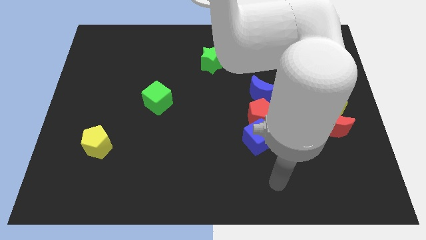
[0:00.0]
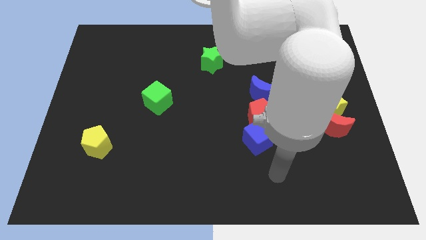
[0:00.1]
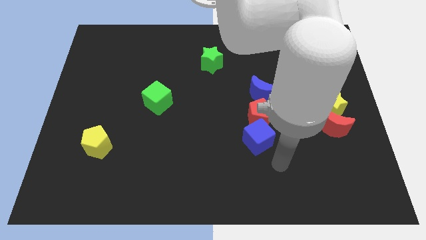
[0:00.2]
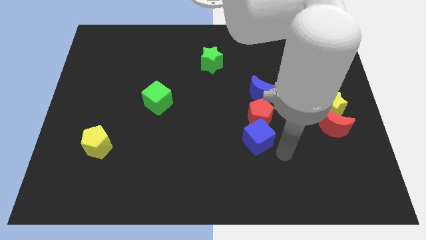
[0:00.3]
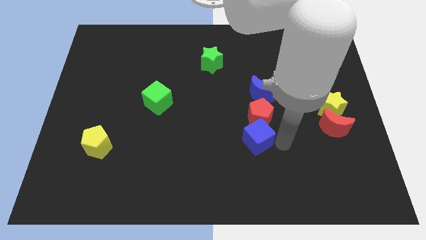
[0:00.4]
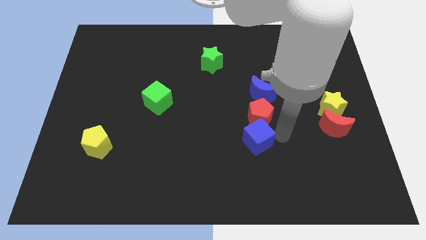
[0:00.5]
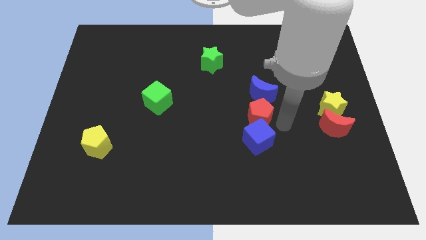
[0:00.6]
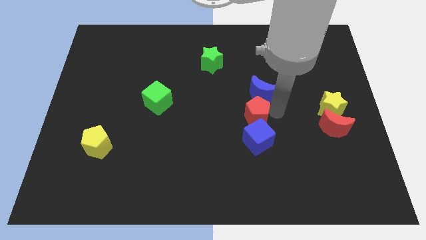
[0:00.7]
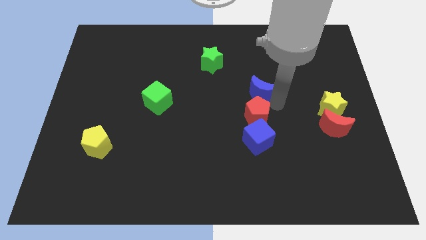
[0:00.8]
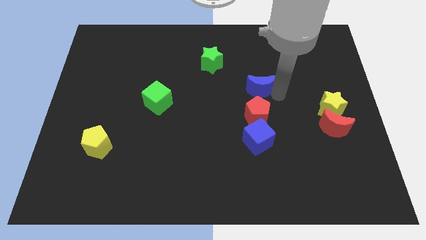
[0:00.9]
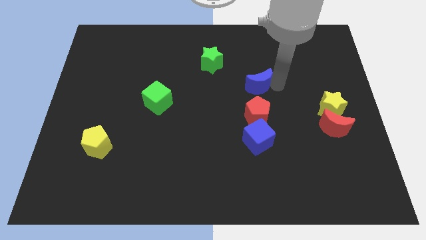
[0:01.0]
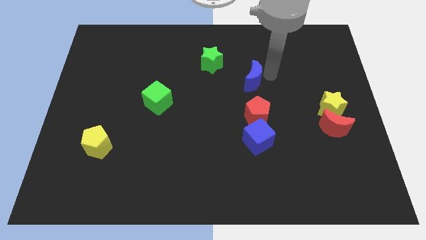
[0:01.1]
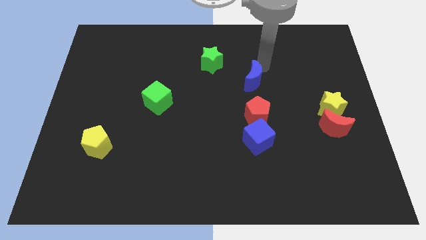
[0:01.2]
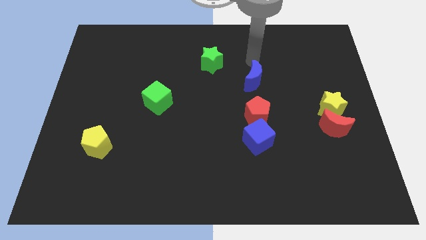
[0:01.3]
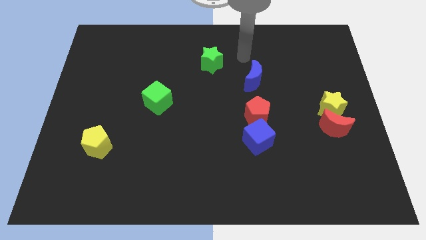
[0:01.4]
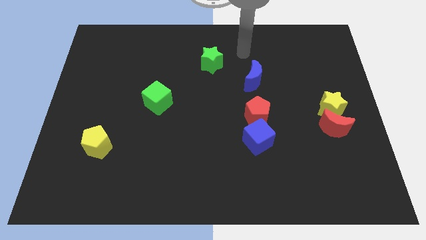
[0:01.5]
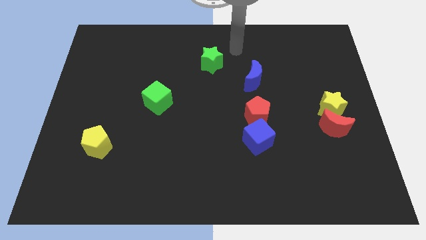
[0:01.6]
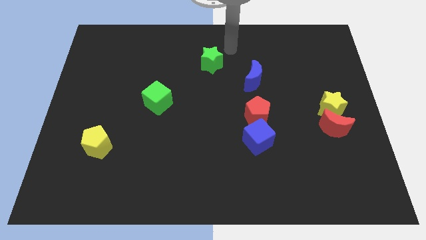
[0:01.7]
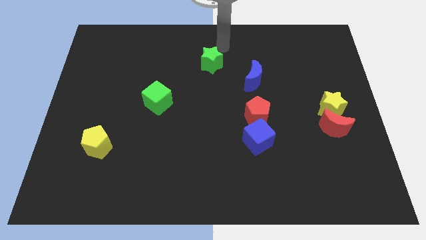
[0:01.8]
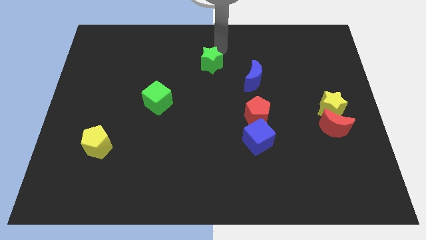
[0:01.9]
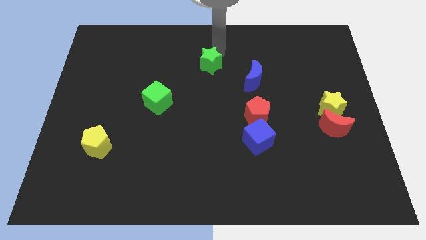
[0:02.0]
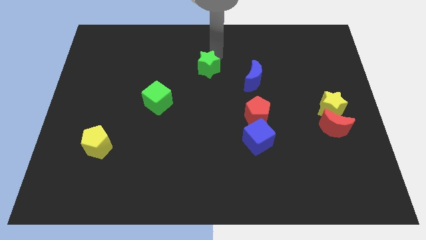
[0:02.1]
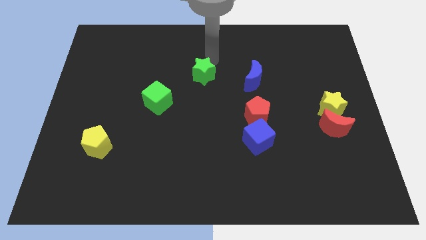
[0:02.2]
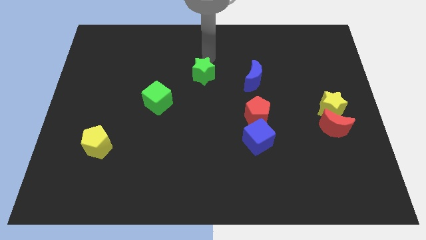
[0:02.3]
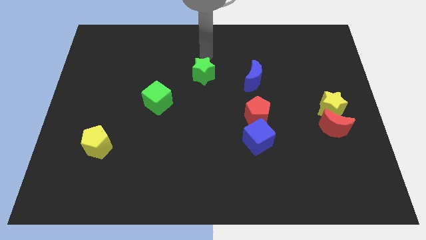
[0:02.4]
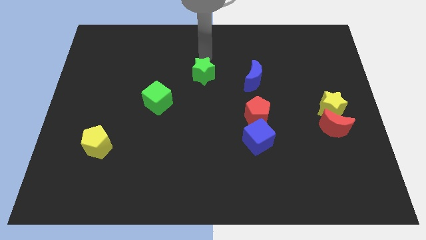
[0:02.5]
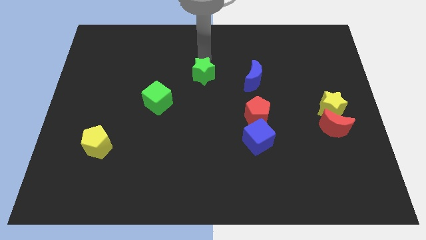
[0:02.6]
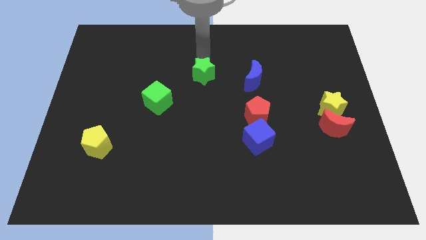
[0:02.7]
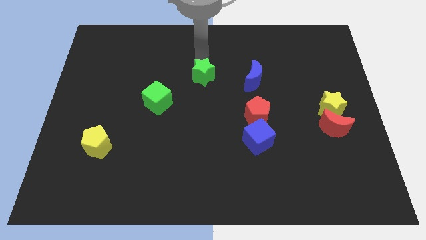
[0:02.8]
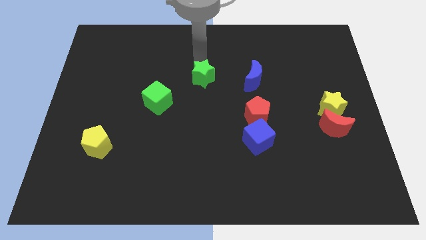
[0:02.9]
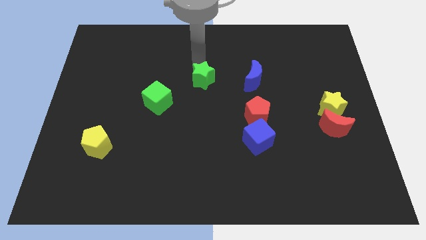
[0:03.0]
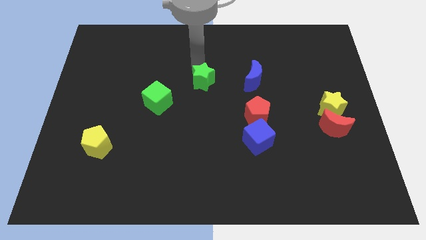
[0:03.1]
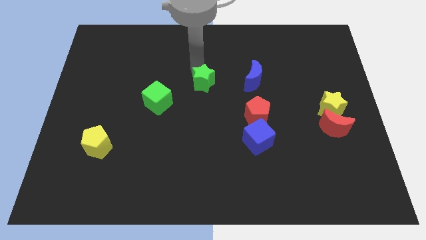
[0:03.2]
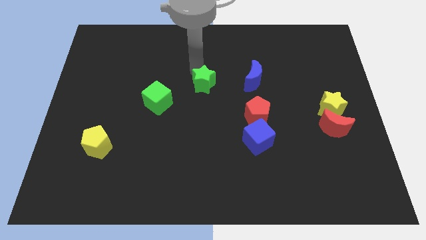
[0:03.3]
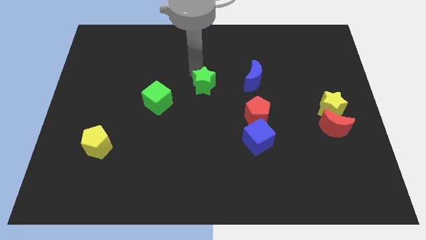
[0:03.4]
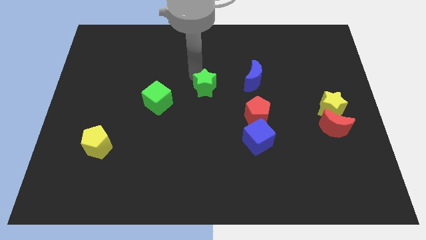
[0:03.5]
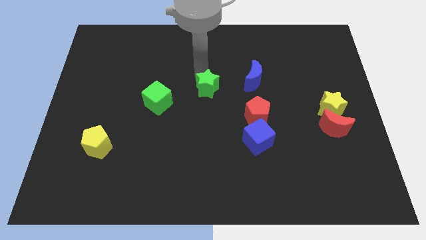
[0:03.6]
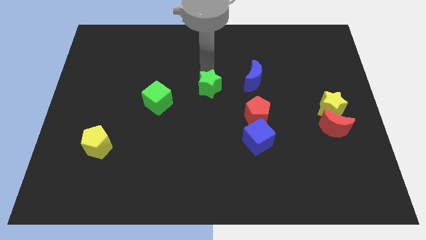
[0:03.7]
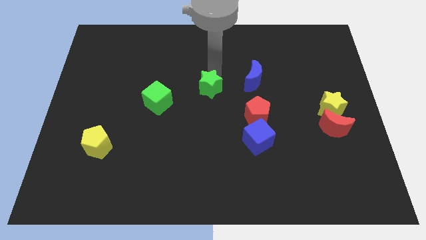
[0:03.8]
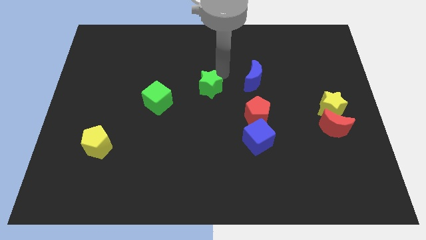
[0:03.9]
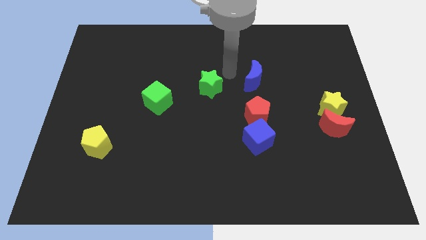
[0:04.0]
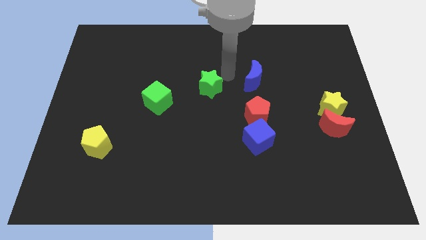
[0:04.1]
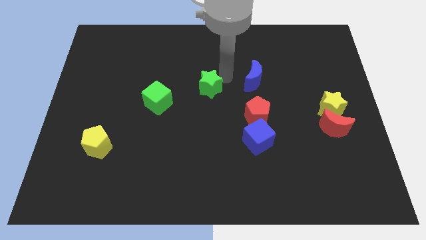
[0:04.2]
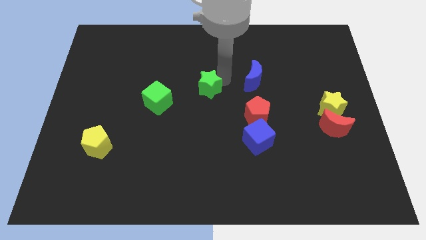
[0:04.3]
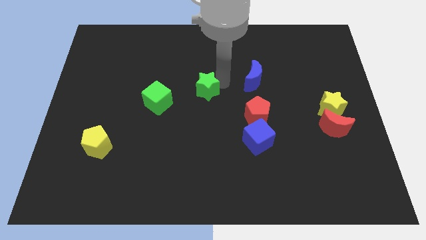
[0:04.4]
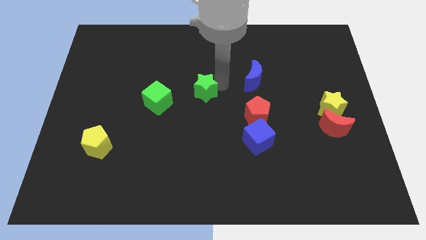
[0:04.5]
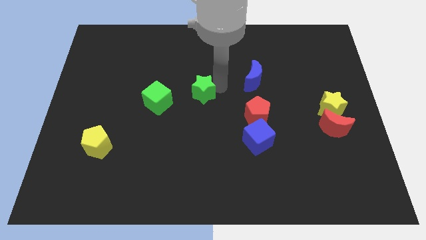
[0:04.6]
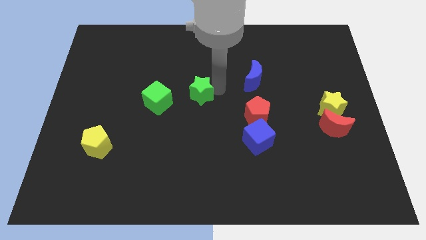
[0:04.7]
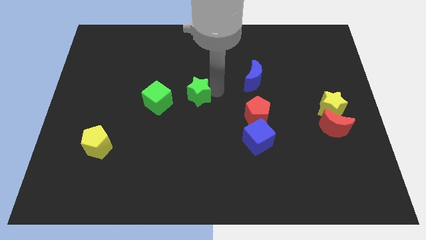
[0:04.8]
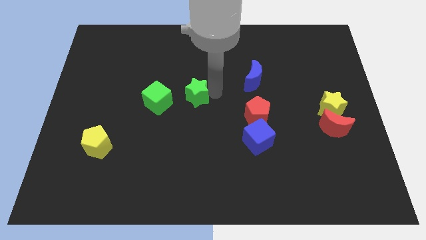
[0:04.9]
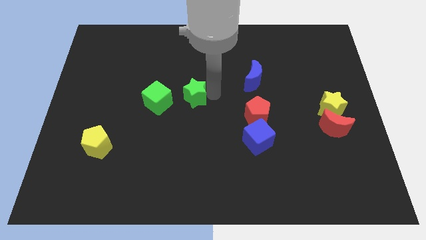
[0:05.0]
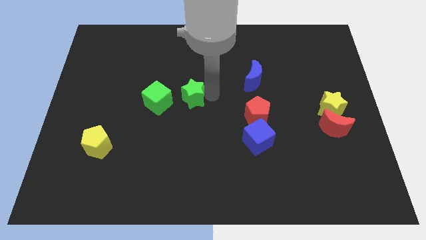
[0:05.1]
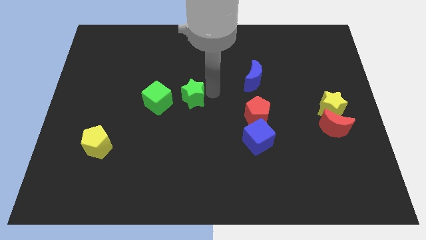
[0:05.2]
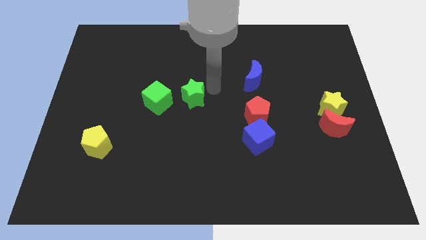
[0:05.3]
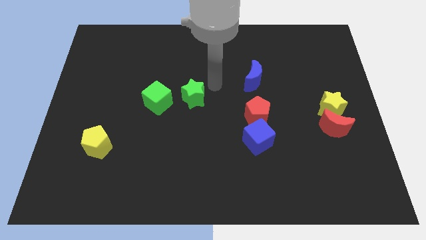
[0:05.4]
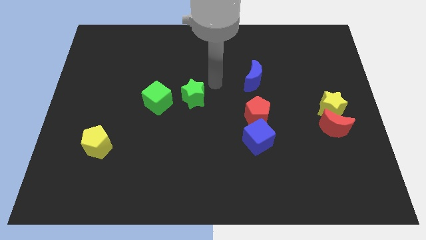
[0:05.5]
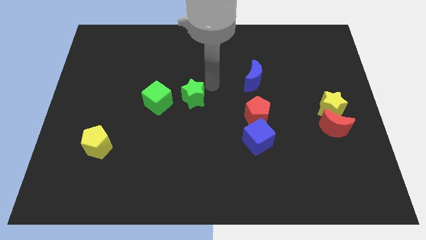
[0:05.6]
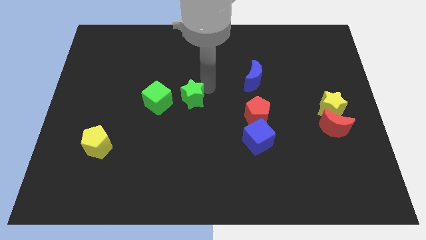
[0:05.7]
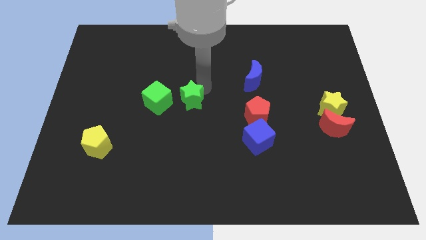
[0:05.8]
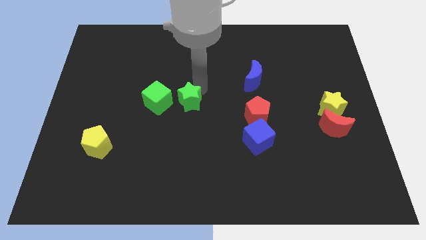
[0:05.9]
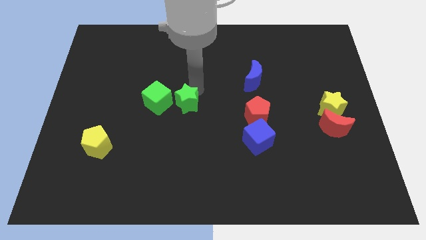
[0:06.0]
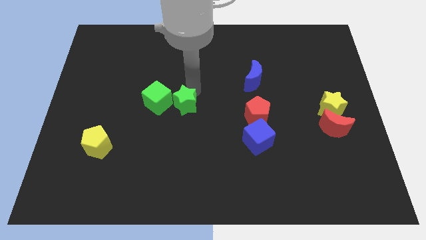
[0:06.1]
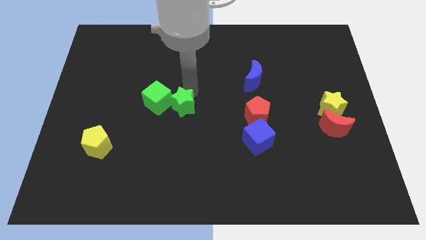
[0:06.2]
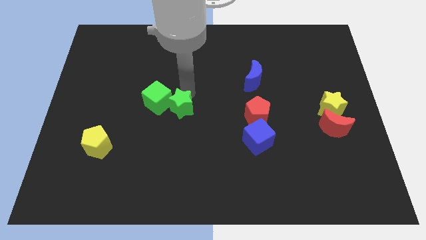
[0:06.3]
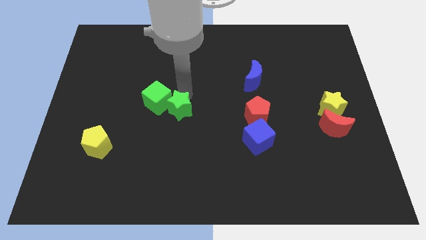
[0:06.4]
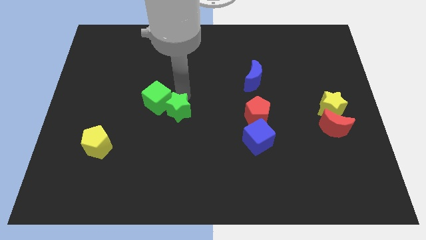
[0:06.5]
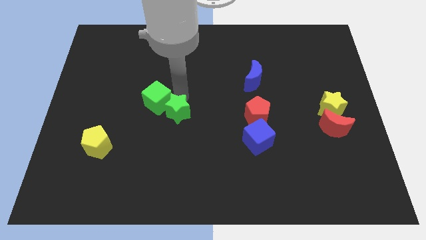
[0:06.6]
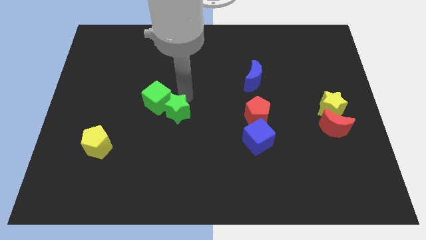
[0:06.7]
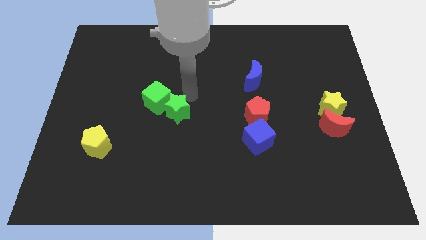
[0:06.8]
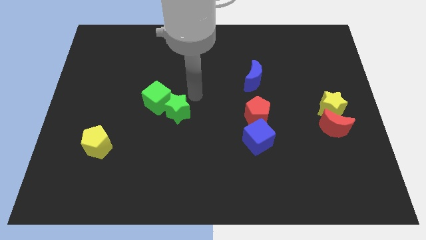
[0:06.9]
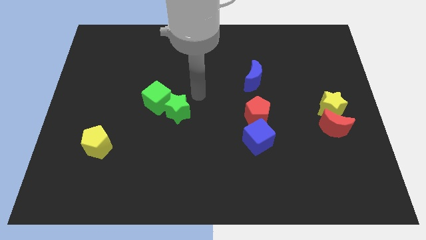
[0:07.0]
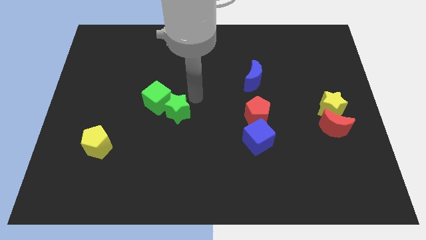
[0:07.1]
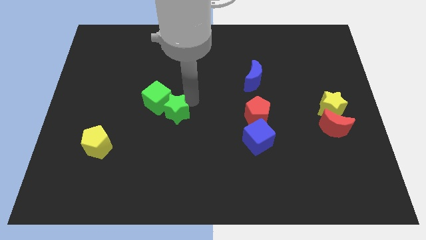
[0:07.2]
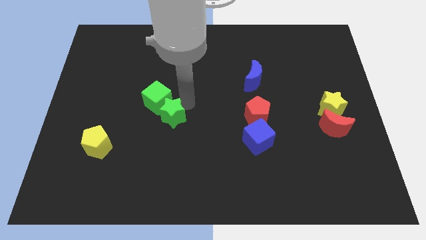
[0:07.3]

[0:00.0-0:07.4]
slide the green star to the bottom of the green cube

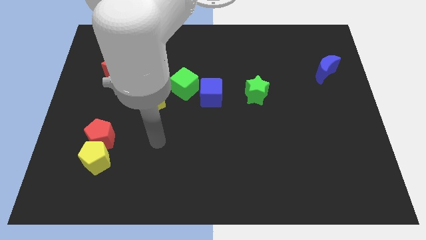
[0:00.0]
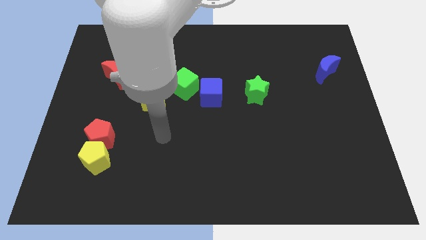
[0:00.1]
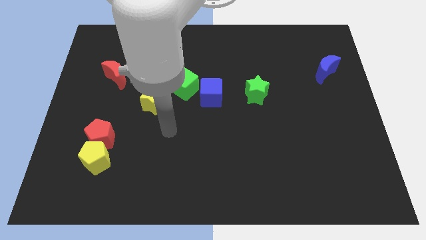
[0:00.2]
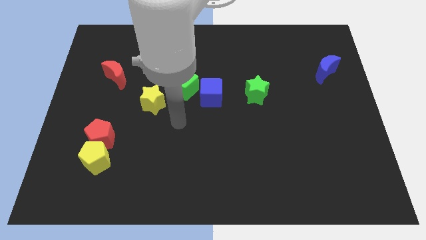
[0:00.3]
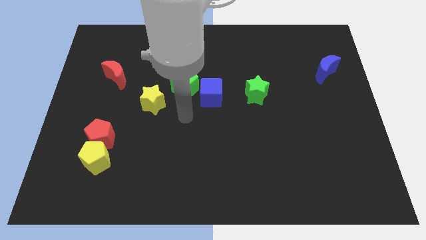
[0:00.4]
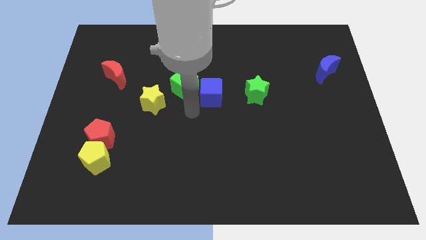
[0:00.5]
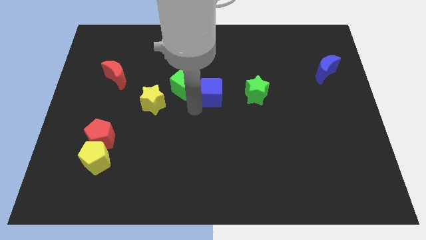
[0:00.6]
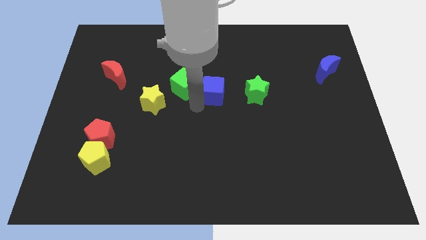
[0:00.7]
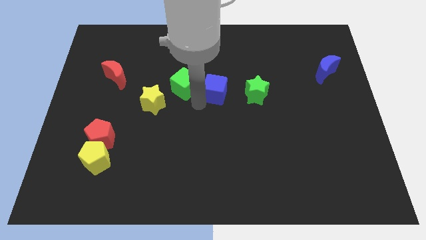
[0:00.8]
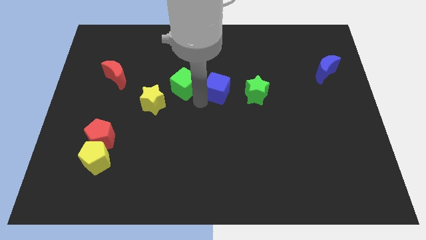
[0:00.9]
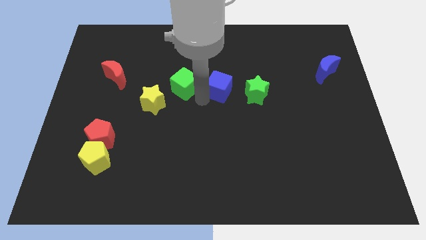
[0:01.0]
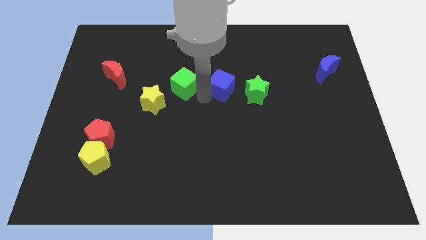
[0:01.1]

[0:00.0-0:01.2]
move the blue cube to the top left of the green star
